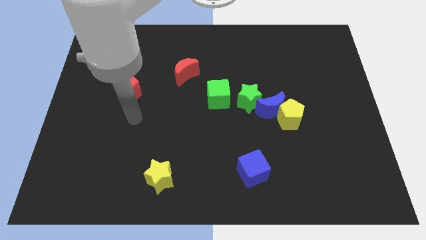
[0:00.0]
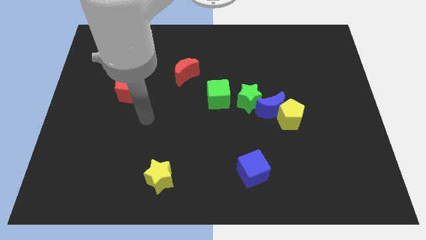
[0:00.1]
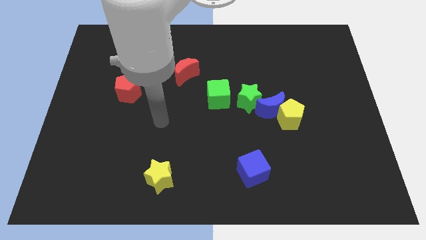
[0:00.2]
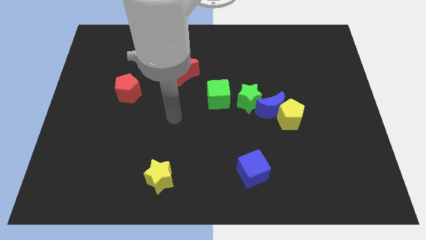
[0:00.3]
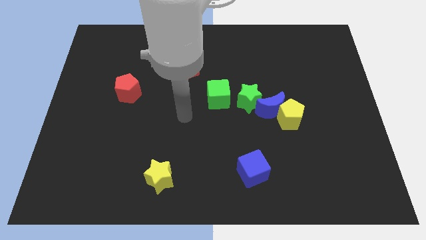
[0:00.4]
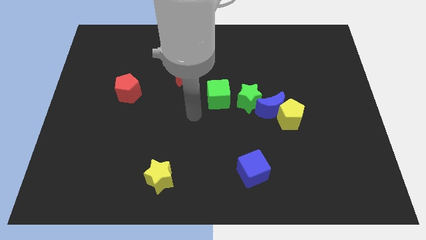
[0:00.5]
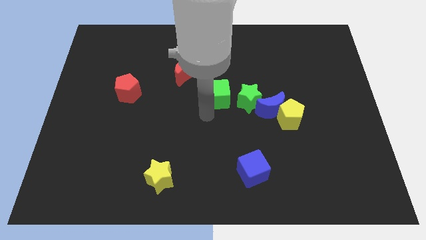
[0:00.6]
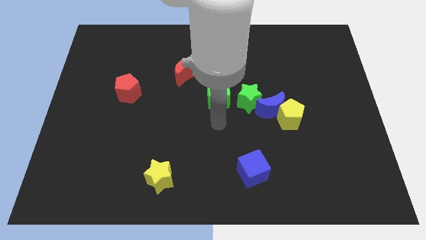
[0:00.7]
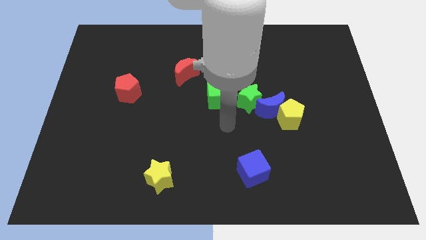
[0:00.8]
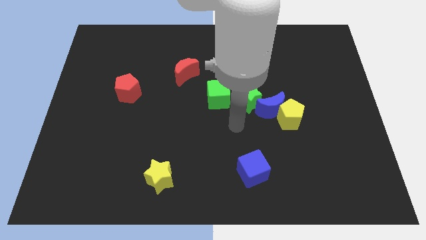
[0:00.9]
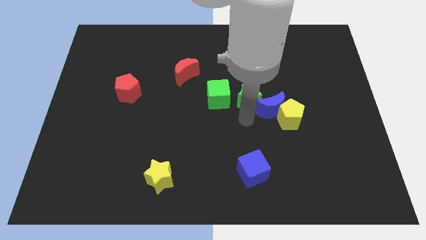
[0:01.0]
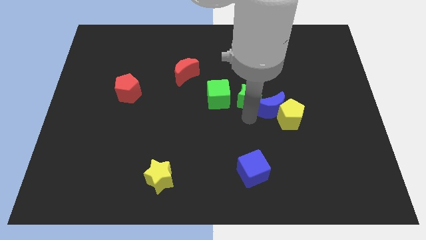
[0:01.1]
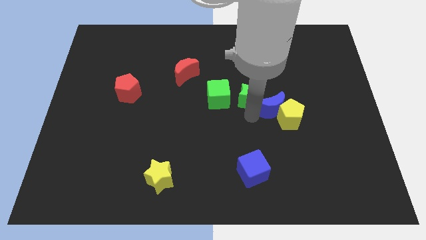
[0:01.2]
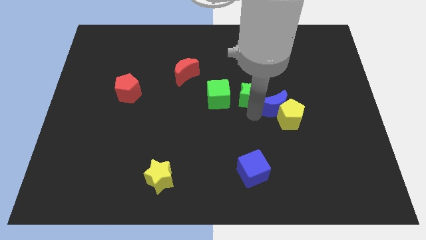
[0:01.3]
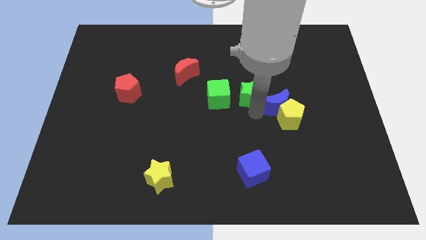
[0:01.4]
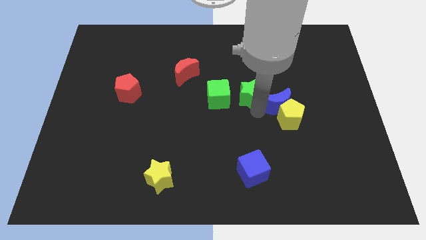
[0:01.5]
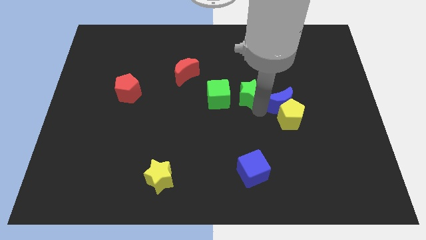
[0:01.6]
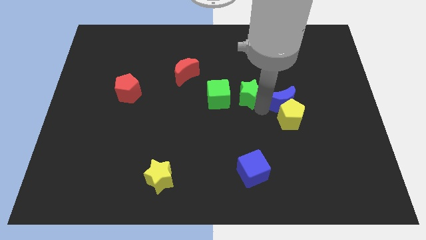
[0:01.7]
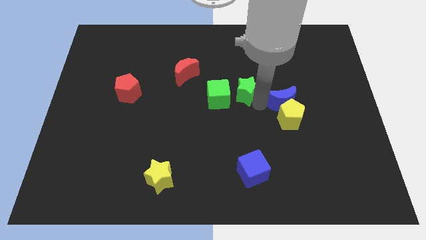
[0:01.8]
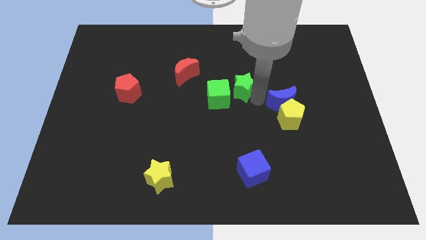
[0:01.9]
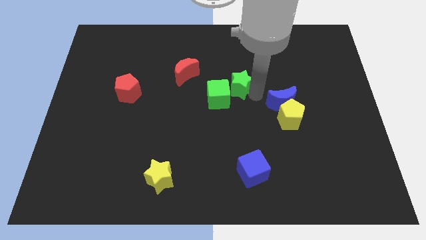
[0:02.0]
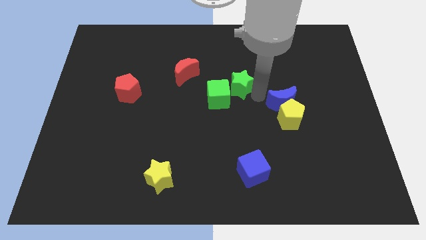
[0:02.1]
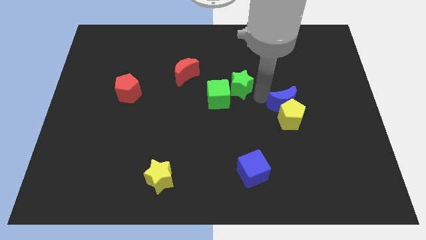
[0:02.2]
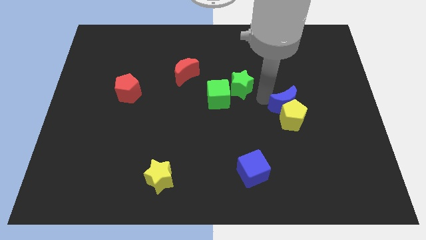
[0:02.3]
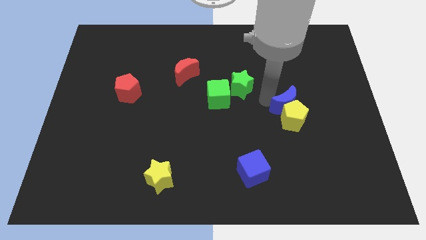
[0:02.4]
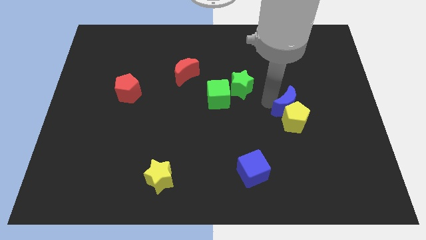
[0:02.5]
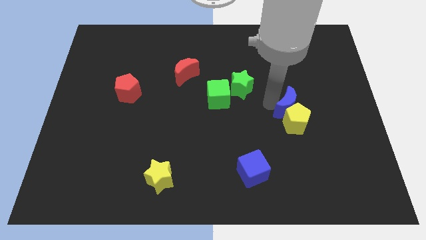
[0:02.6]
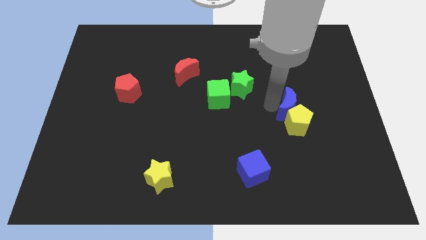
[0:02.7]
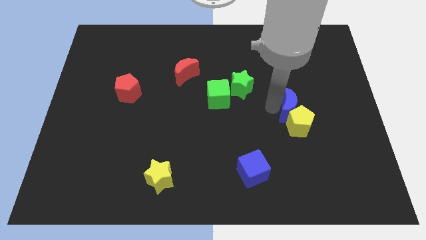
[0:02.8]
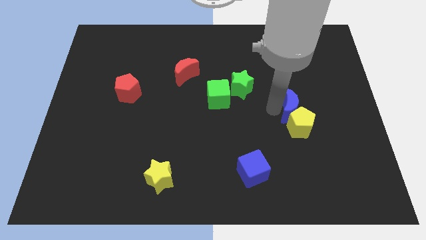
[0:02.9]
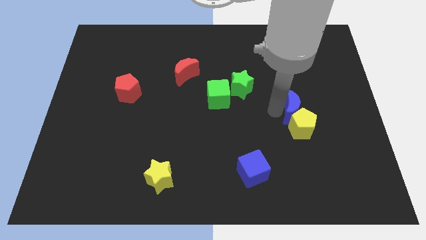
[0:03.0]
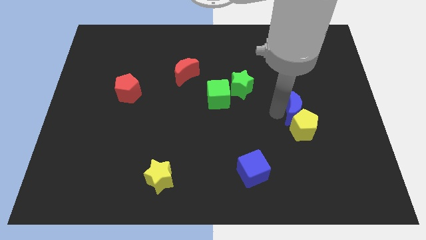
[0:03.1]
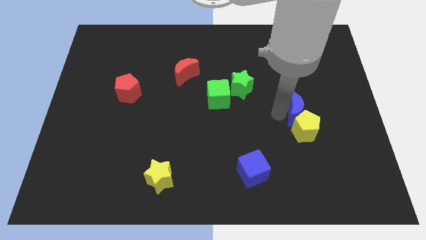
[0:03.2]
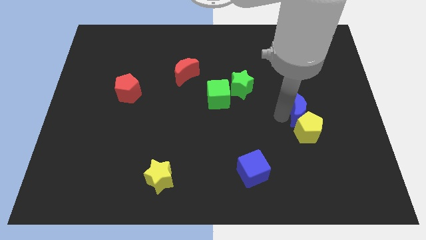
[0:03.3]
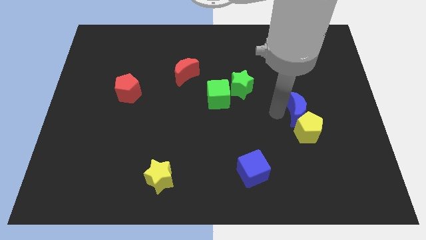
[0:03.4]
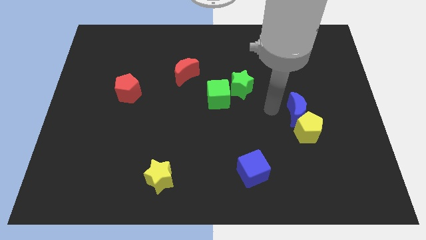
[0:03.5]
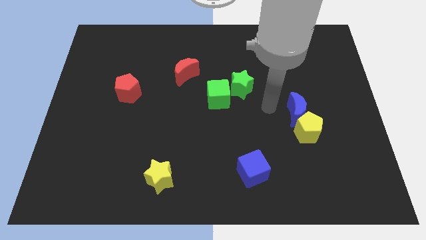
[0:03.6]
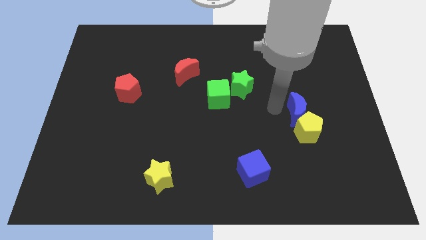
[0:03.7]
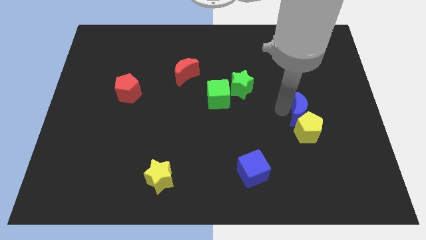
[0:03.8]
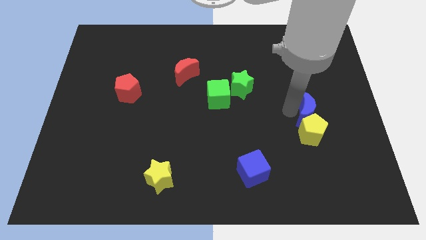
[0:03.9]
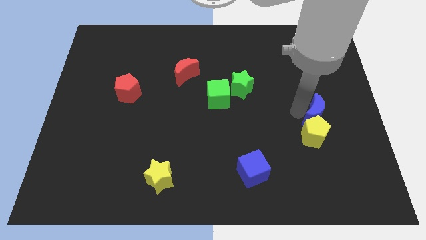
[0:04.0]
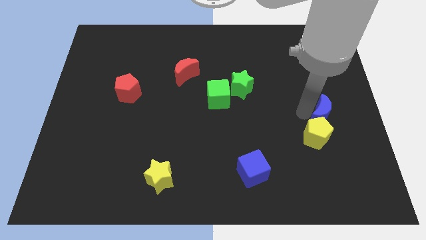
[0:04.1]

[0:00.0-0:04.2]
separate the blue moon from the yellow pentagon and green star

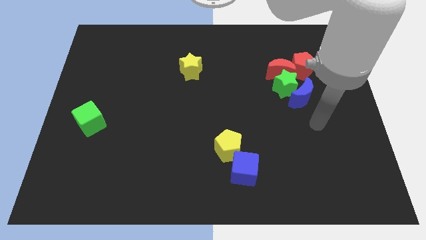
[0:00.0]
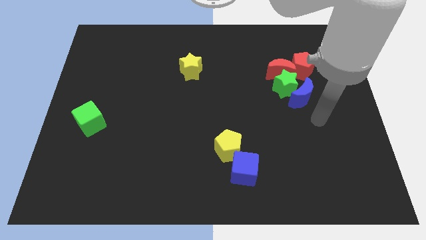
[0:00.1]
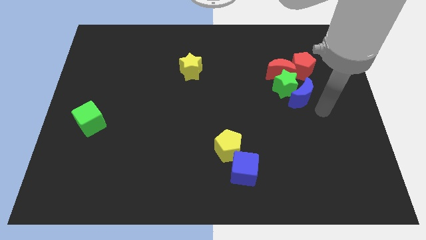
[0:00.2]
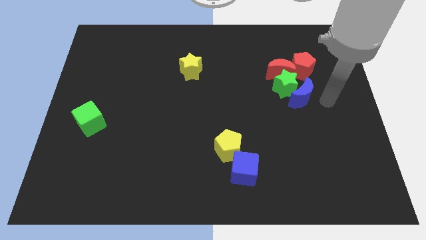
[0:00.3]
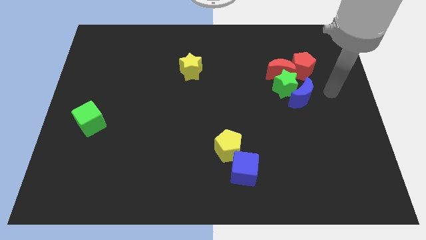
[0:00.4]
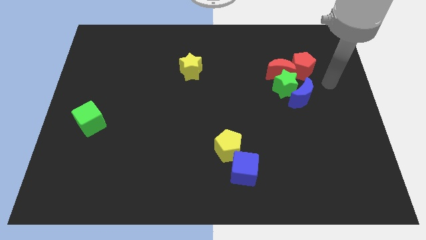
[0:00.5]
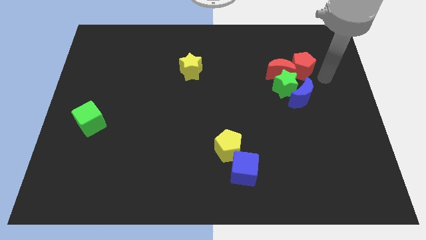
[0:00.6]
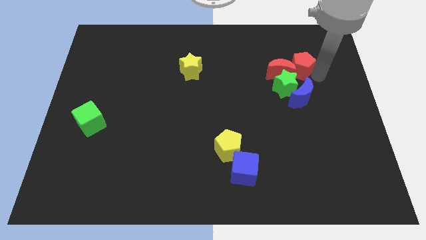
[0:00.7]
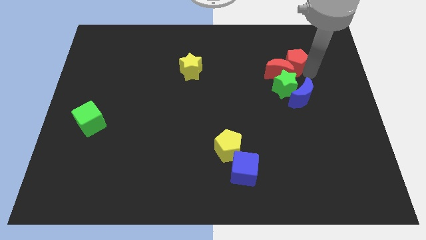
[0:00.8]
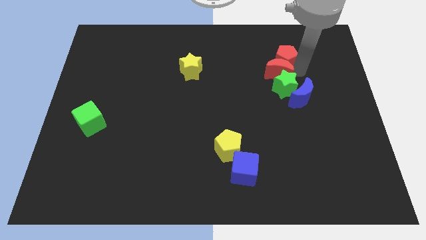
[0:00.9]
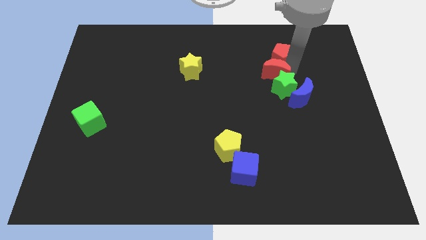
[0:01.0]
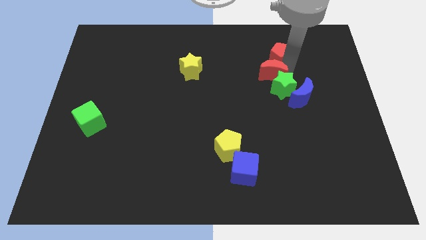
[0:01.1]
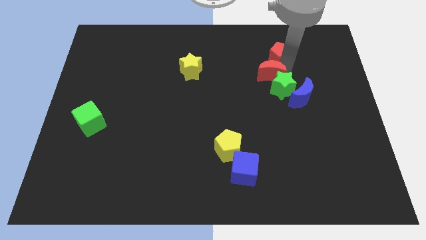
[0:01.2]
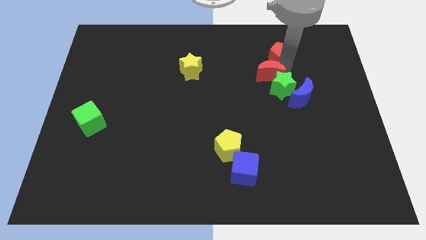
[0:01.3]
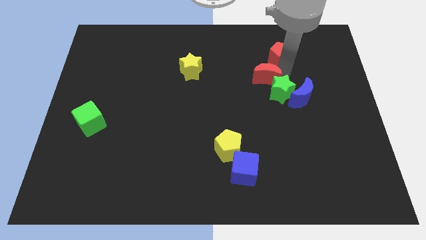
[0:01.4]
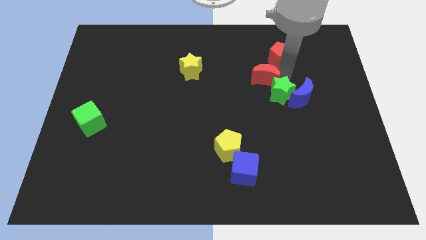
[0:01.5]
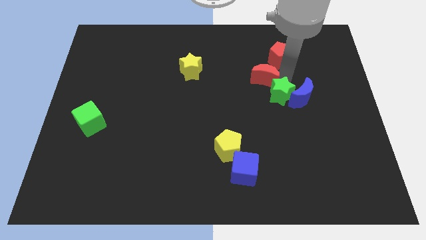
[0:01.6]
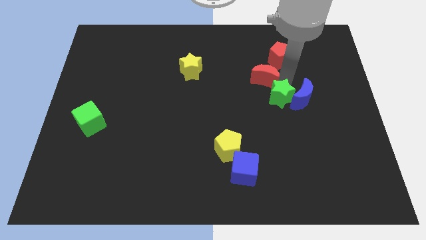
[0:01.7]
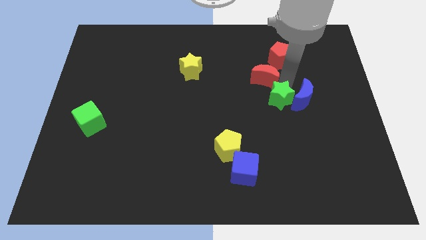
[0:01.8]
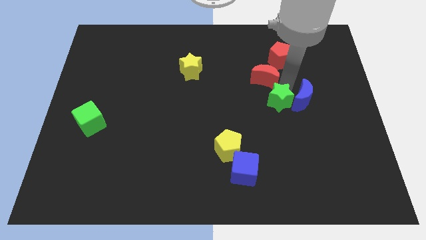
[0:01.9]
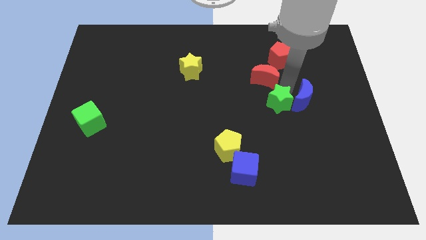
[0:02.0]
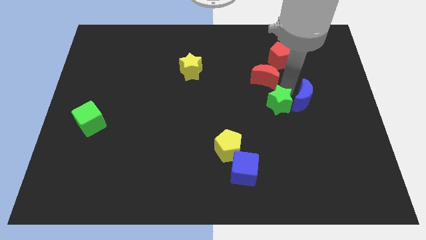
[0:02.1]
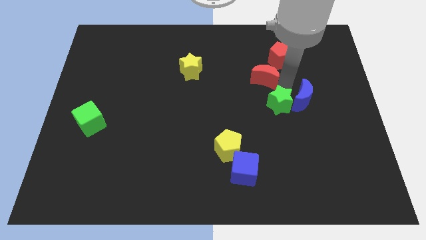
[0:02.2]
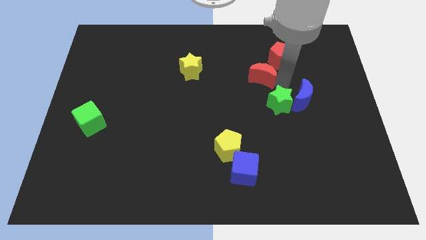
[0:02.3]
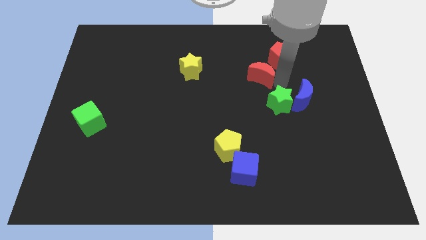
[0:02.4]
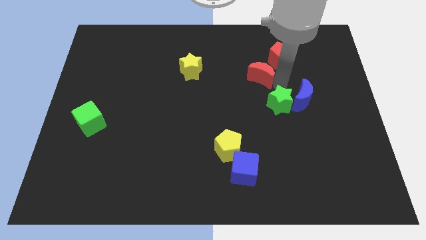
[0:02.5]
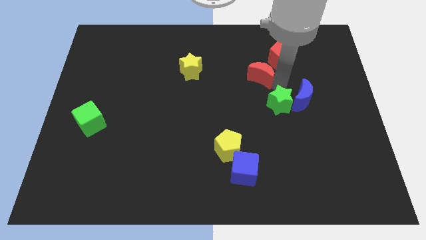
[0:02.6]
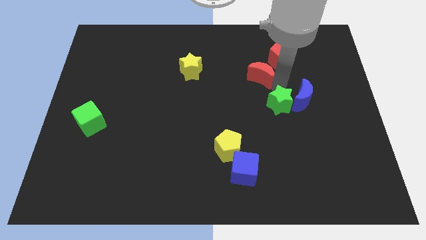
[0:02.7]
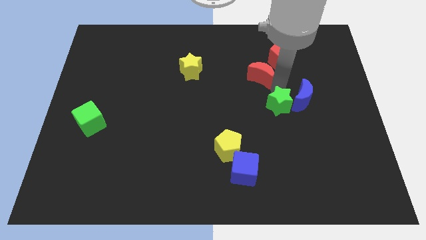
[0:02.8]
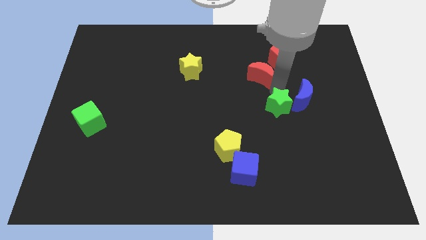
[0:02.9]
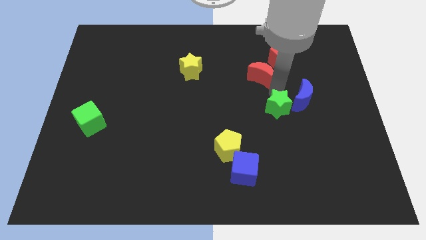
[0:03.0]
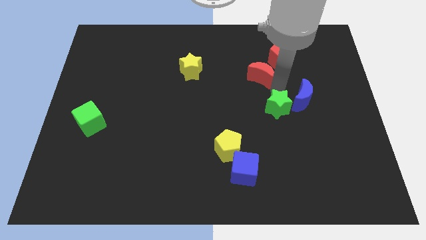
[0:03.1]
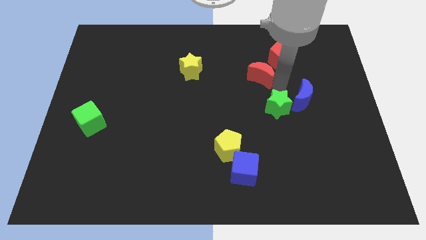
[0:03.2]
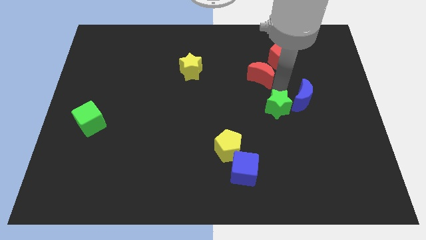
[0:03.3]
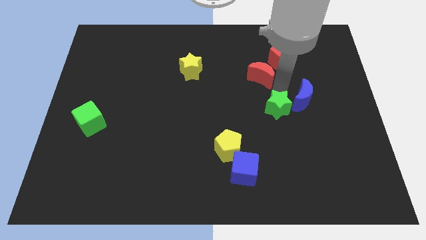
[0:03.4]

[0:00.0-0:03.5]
move the green star away from the group

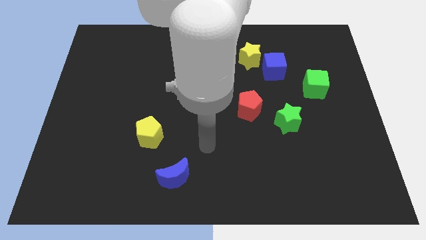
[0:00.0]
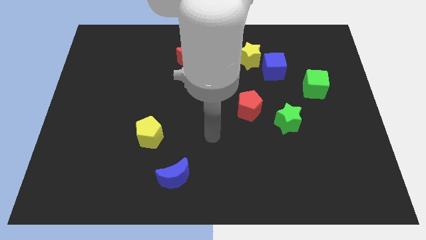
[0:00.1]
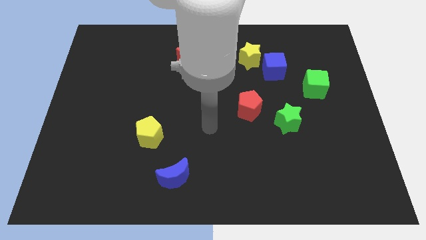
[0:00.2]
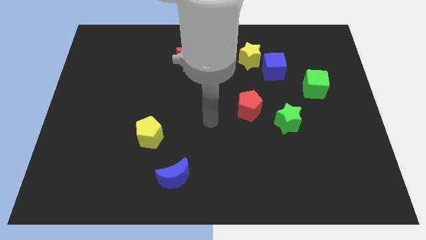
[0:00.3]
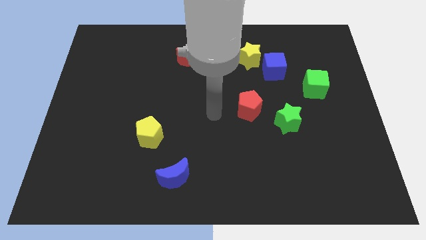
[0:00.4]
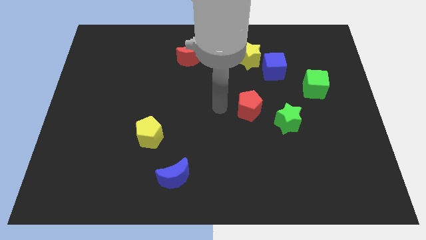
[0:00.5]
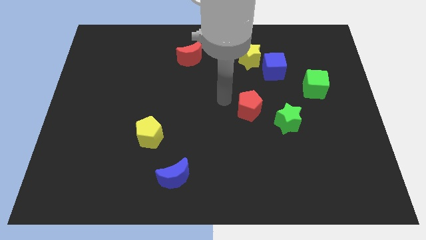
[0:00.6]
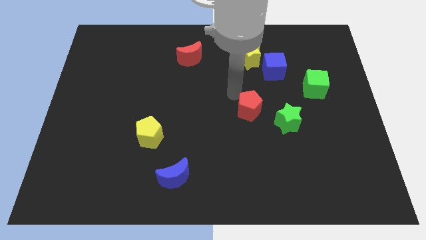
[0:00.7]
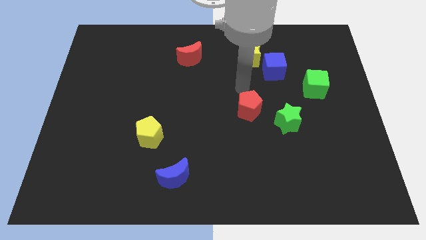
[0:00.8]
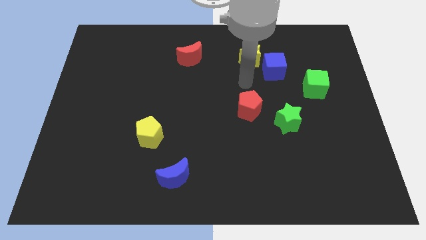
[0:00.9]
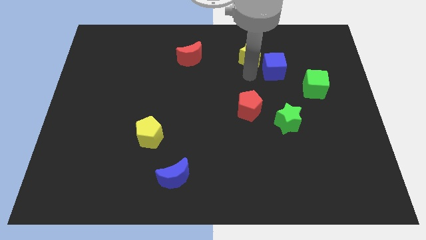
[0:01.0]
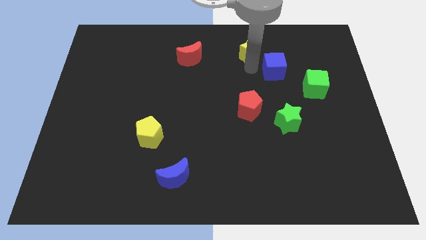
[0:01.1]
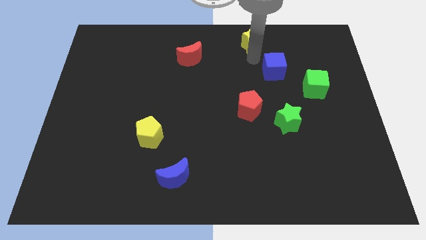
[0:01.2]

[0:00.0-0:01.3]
pull the blue cube apart from the yellow star

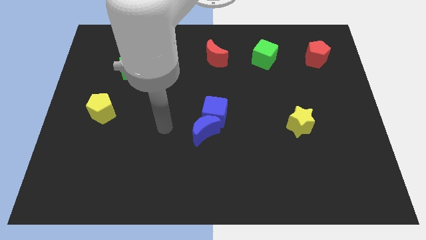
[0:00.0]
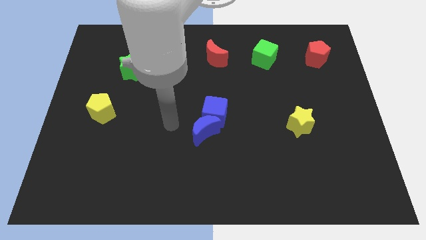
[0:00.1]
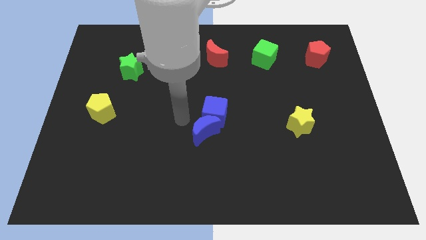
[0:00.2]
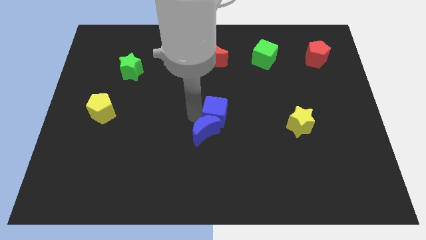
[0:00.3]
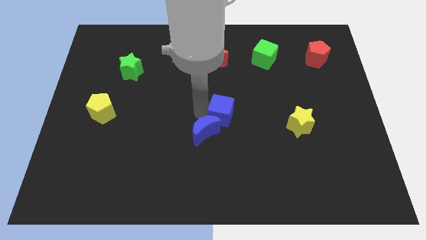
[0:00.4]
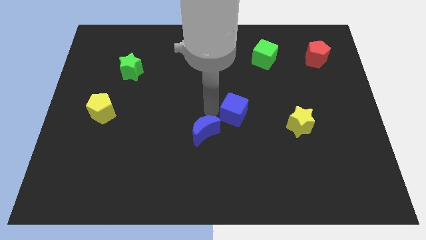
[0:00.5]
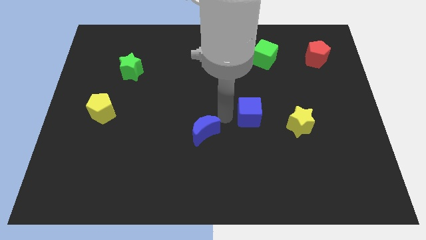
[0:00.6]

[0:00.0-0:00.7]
separate the blue moon from the blue cube
